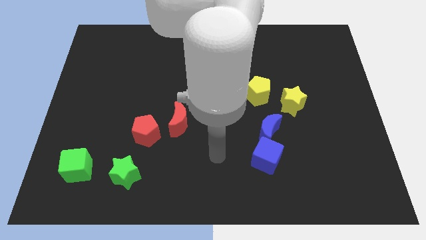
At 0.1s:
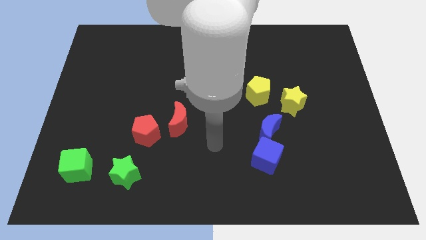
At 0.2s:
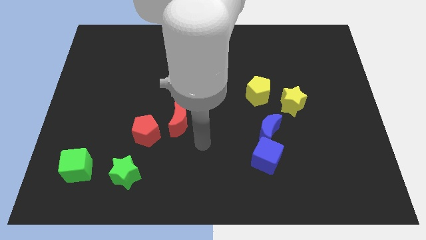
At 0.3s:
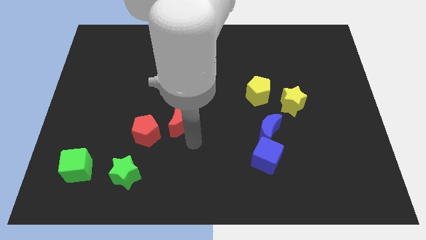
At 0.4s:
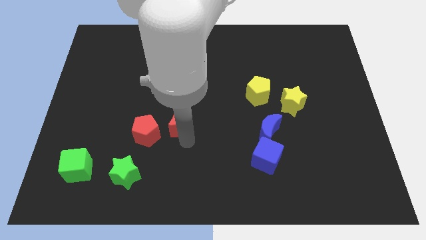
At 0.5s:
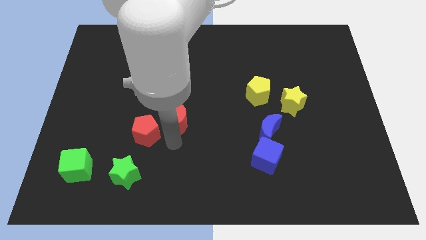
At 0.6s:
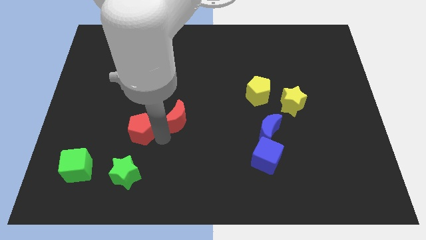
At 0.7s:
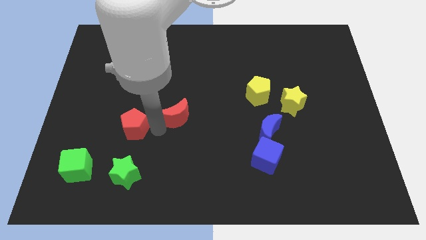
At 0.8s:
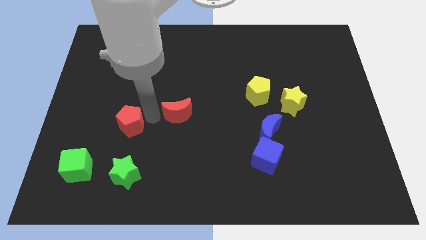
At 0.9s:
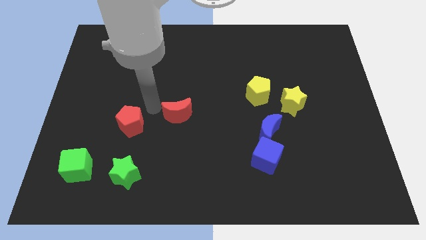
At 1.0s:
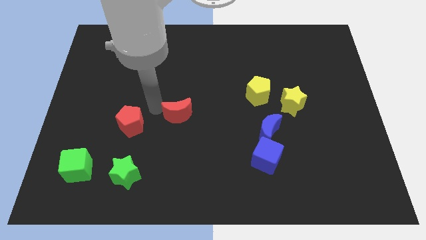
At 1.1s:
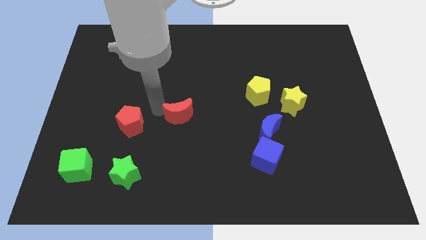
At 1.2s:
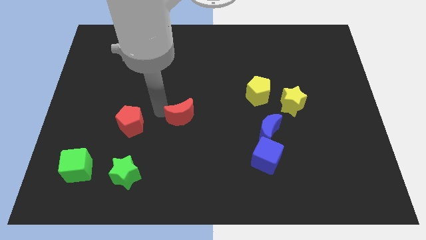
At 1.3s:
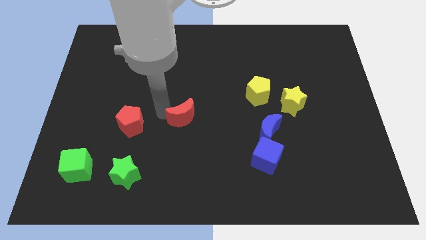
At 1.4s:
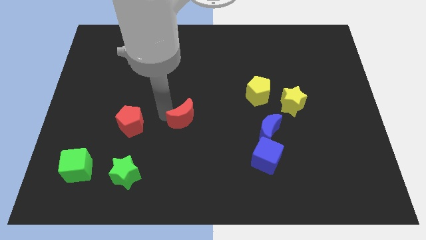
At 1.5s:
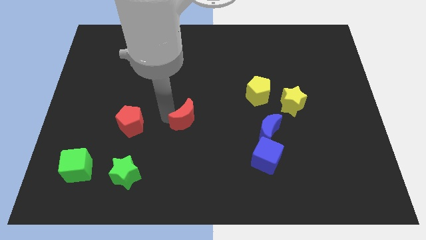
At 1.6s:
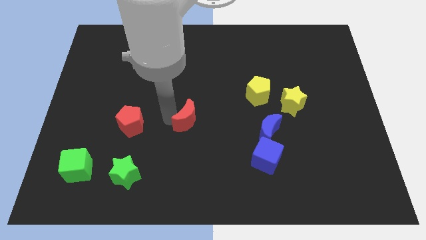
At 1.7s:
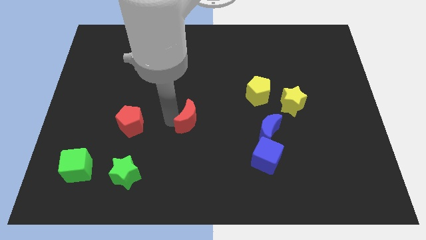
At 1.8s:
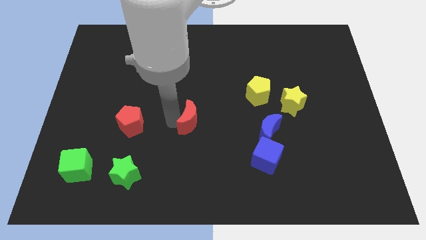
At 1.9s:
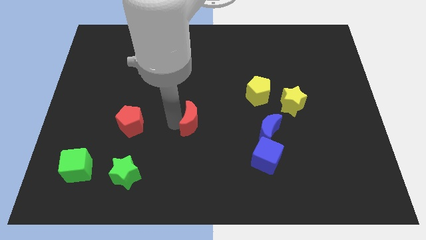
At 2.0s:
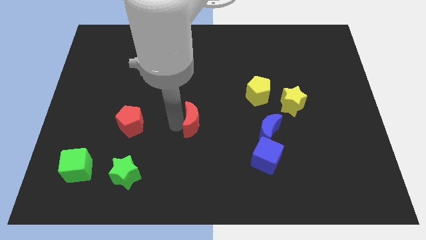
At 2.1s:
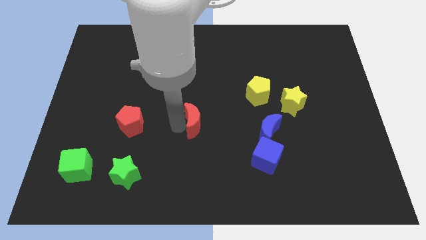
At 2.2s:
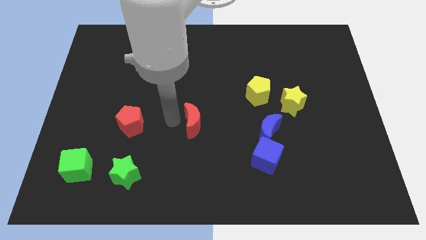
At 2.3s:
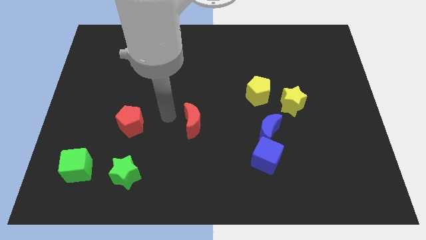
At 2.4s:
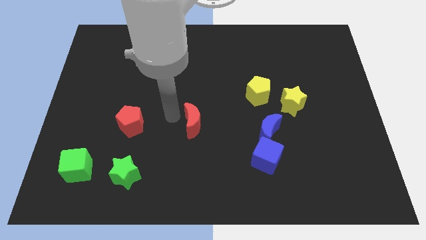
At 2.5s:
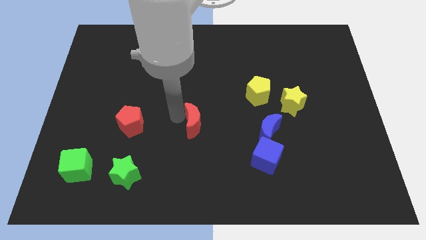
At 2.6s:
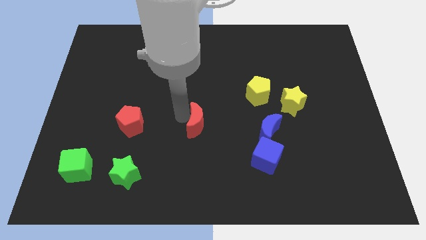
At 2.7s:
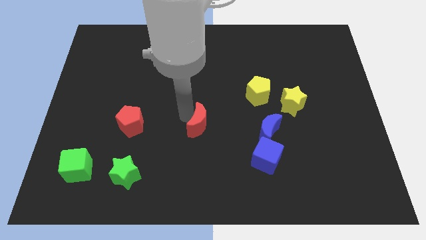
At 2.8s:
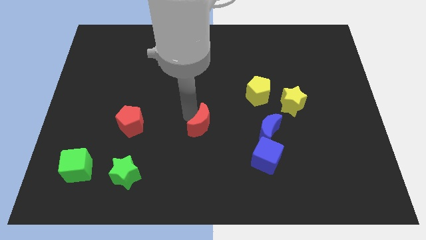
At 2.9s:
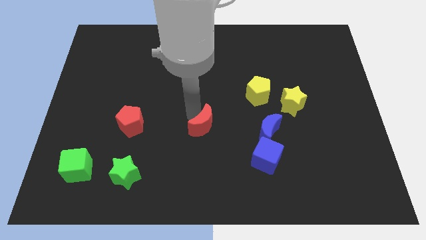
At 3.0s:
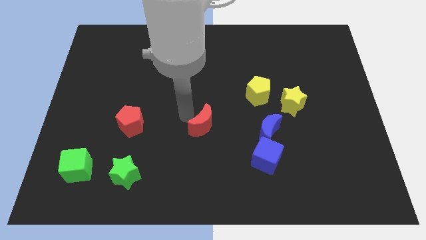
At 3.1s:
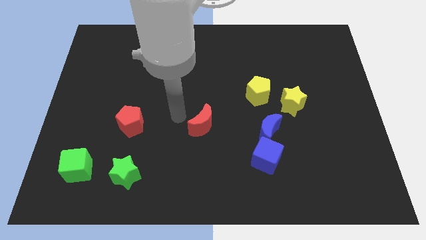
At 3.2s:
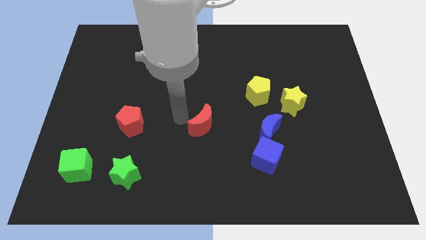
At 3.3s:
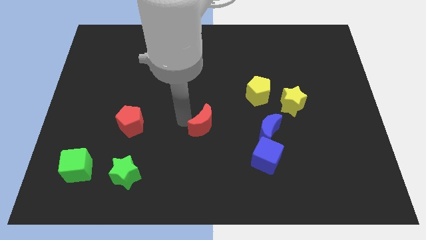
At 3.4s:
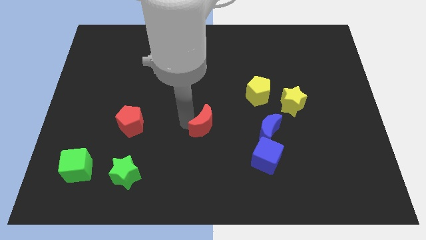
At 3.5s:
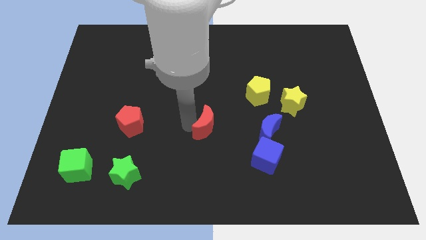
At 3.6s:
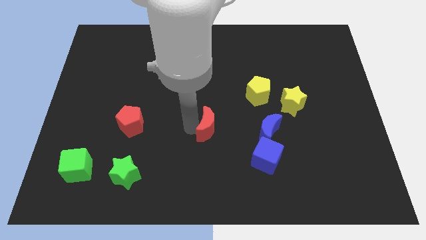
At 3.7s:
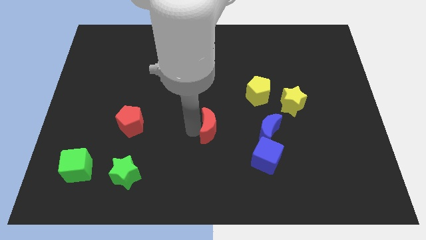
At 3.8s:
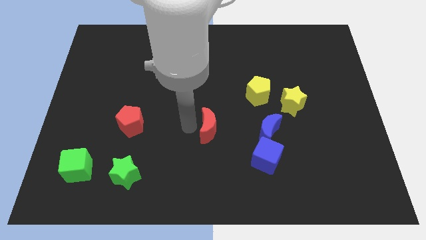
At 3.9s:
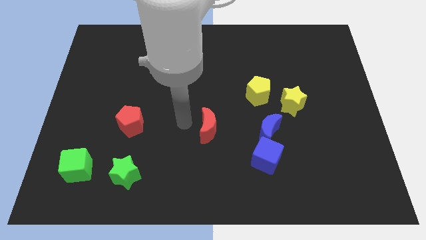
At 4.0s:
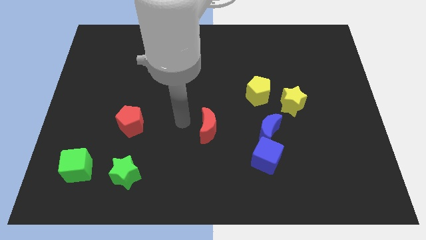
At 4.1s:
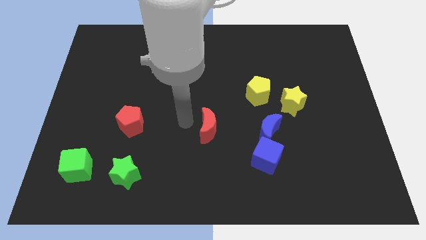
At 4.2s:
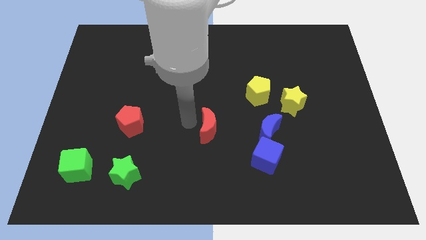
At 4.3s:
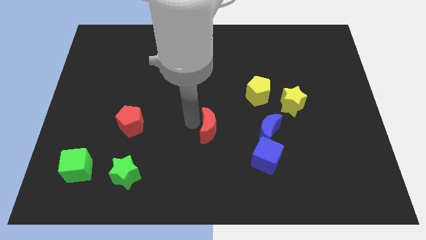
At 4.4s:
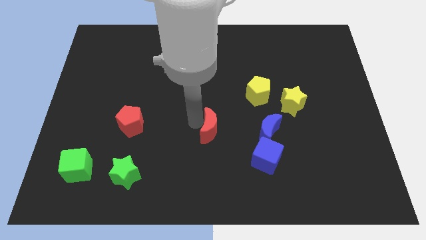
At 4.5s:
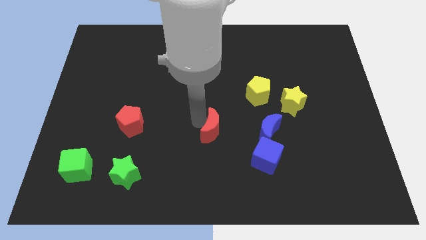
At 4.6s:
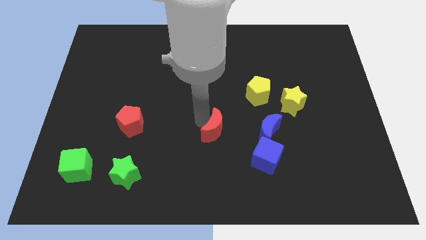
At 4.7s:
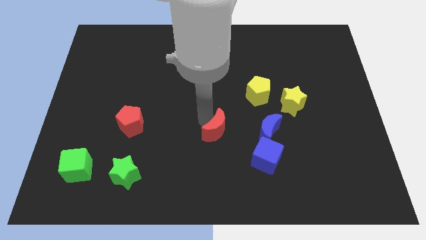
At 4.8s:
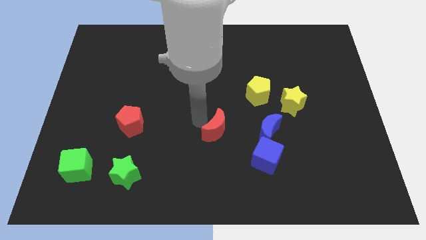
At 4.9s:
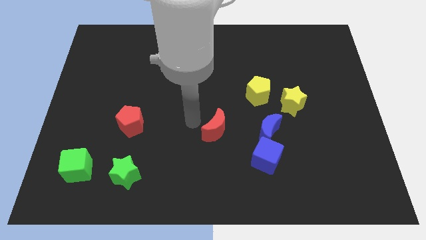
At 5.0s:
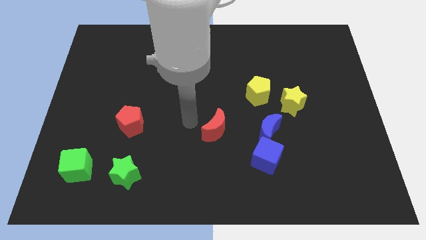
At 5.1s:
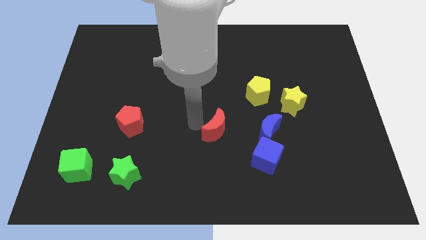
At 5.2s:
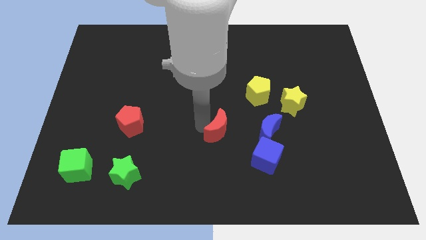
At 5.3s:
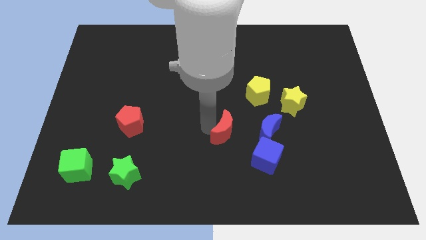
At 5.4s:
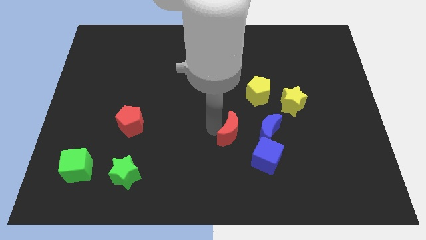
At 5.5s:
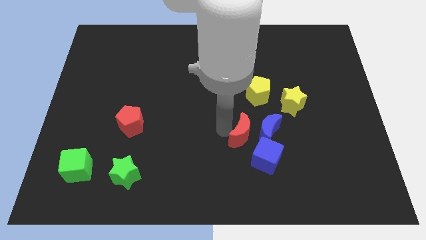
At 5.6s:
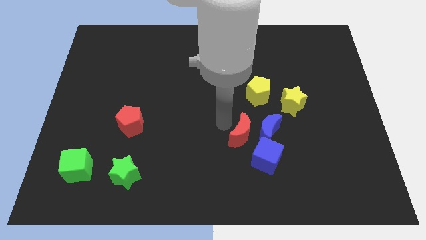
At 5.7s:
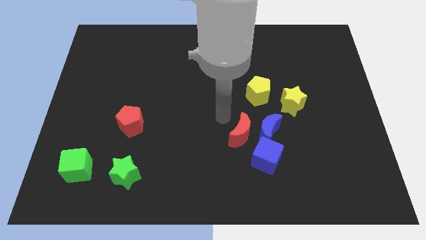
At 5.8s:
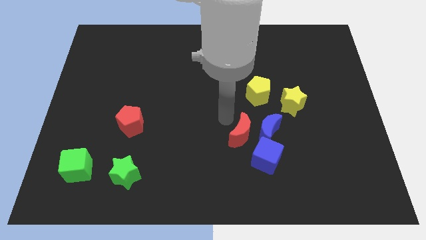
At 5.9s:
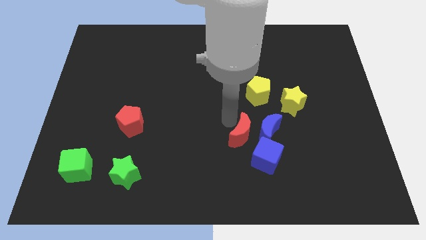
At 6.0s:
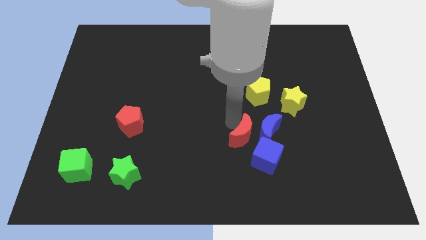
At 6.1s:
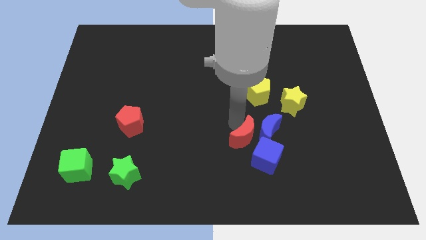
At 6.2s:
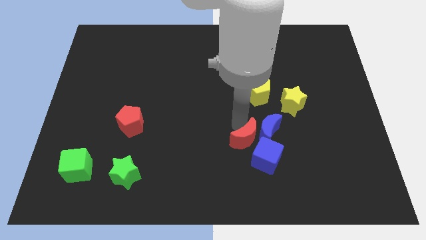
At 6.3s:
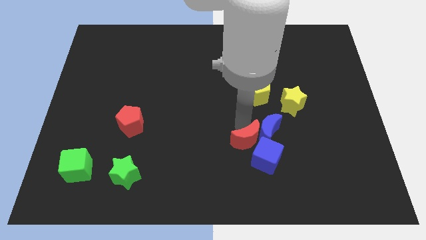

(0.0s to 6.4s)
move the red moon to the blue cube

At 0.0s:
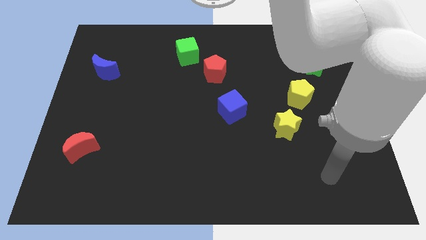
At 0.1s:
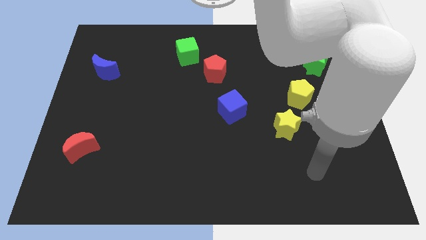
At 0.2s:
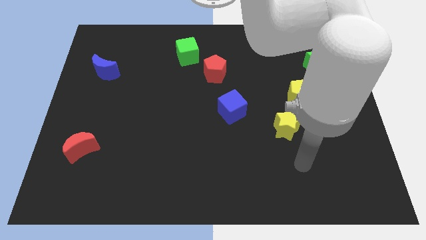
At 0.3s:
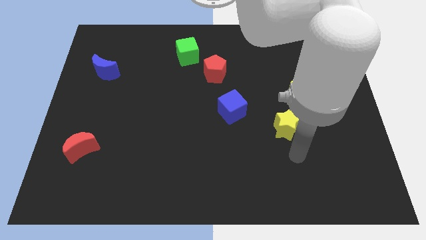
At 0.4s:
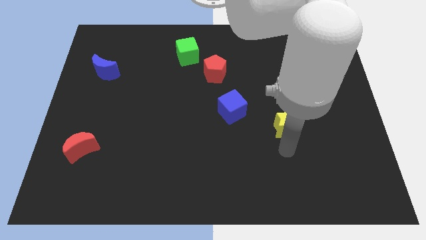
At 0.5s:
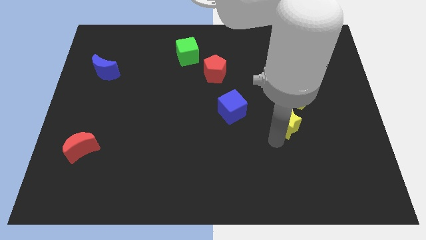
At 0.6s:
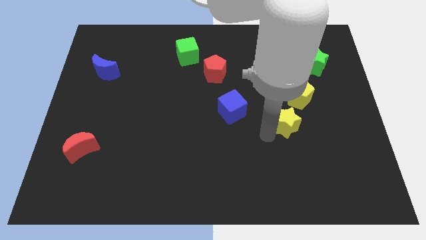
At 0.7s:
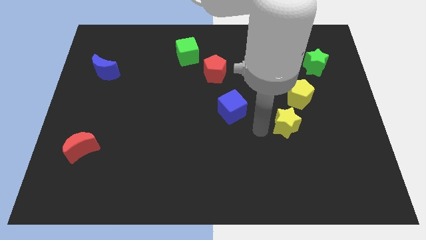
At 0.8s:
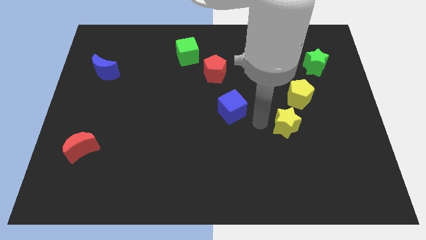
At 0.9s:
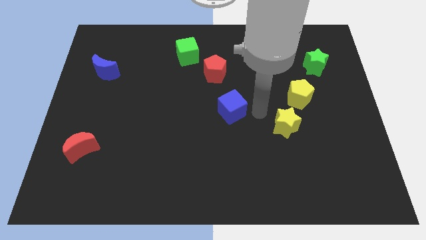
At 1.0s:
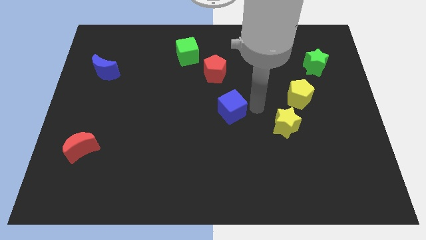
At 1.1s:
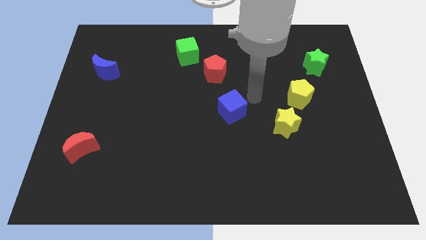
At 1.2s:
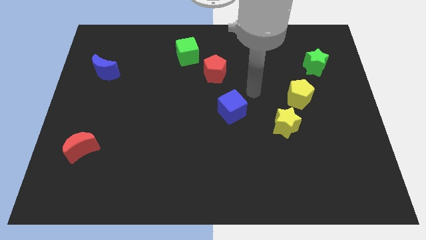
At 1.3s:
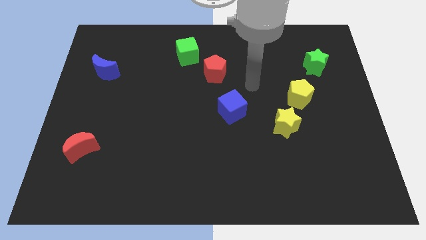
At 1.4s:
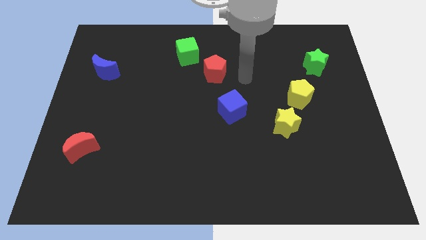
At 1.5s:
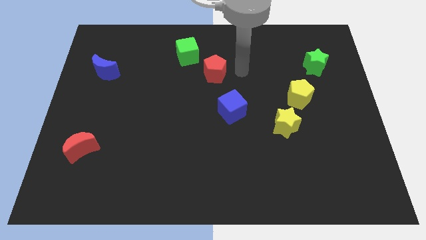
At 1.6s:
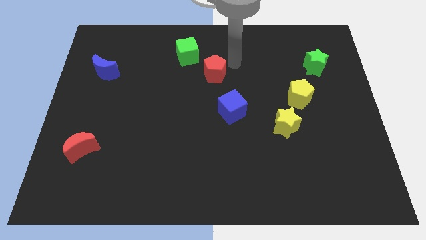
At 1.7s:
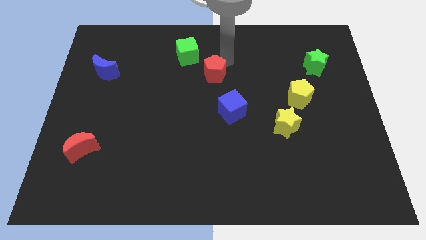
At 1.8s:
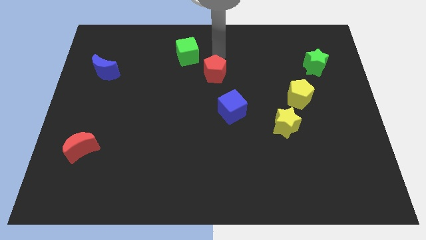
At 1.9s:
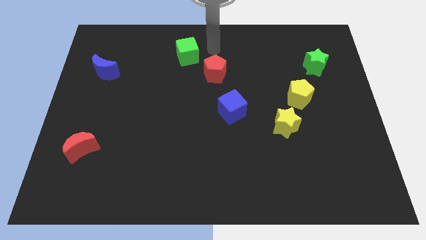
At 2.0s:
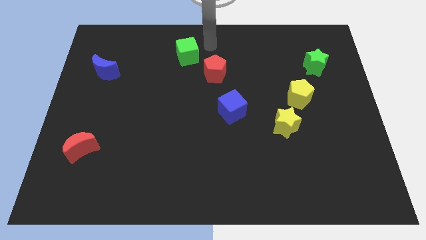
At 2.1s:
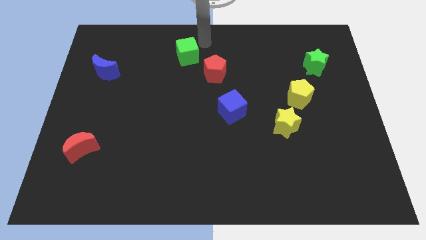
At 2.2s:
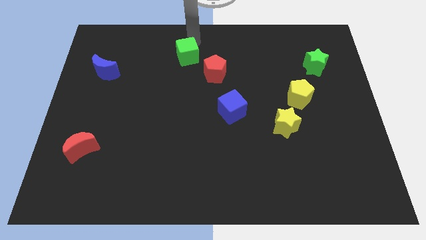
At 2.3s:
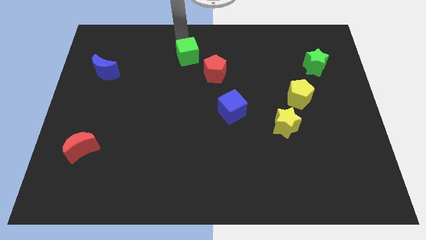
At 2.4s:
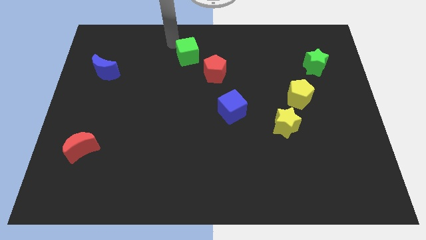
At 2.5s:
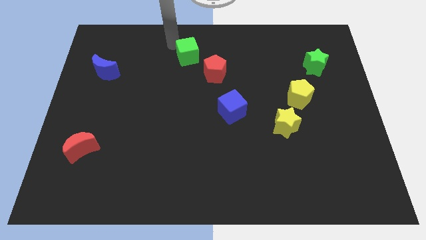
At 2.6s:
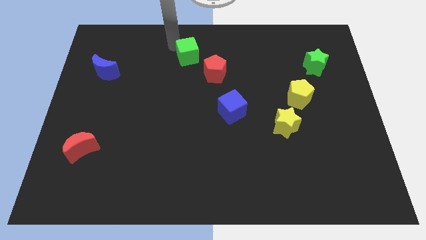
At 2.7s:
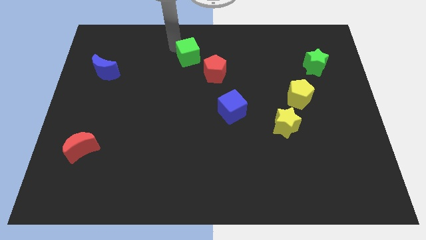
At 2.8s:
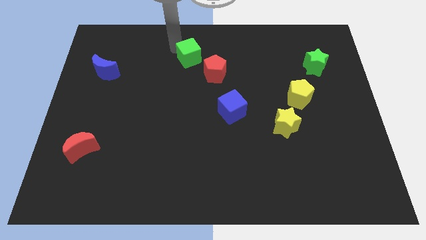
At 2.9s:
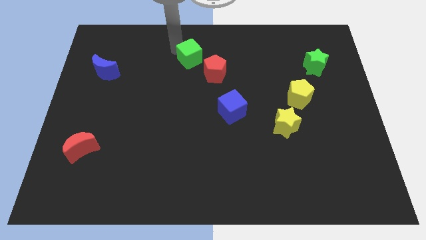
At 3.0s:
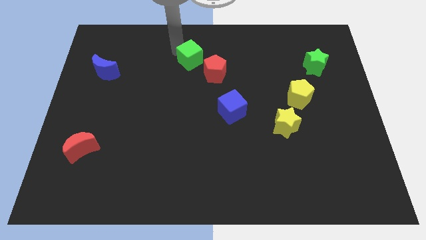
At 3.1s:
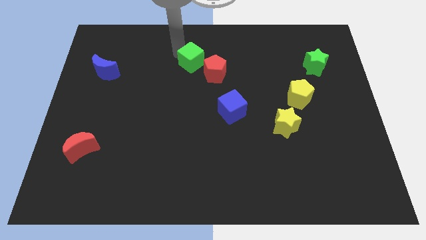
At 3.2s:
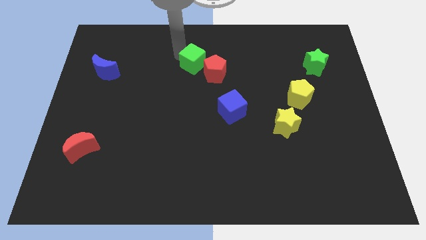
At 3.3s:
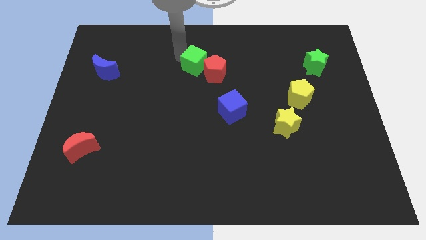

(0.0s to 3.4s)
put the green cube next to the red pentagon
